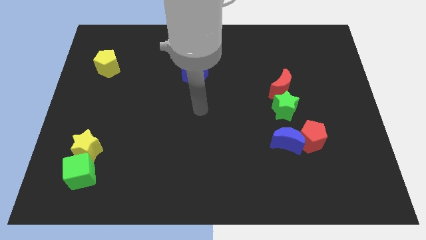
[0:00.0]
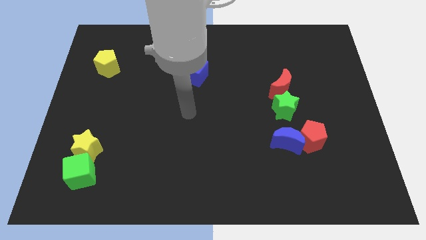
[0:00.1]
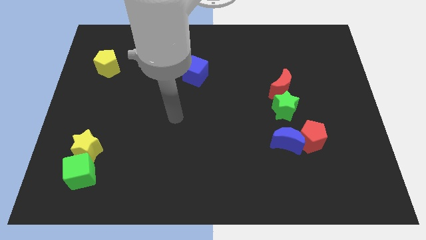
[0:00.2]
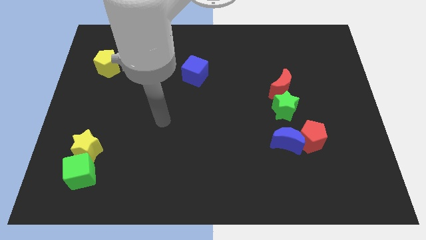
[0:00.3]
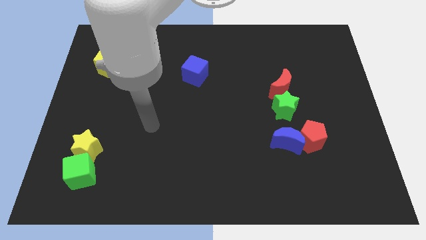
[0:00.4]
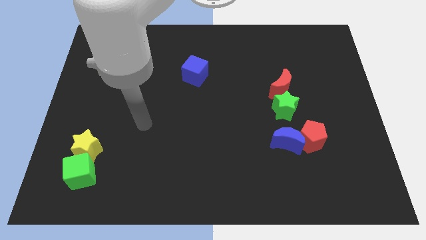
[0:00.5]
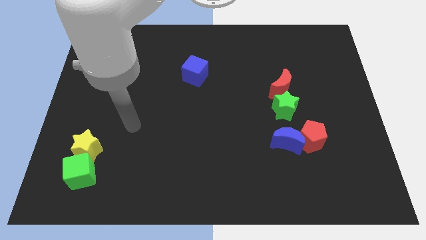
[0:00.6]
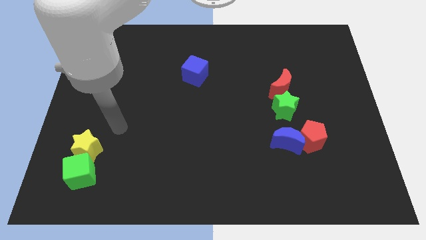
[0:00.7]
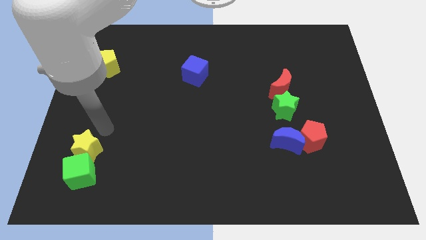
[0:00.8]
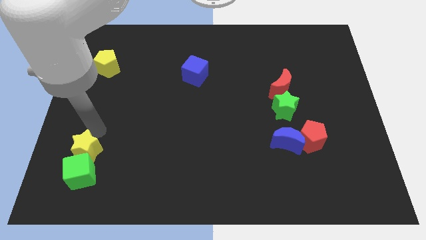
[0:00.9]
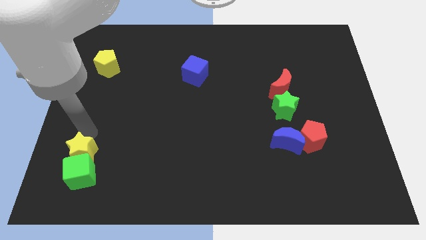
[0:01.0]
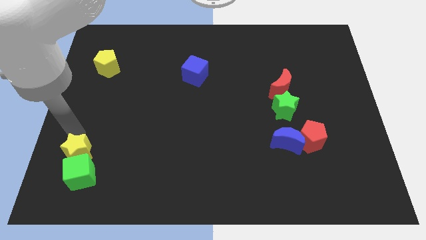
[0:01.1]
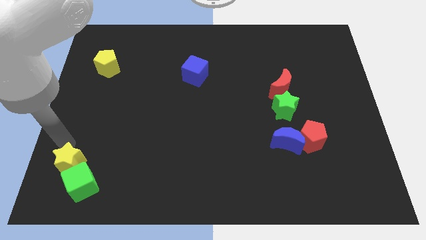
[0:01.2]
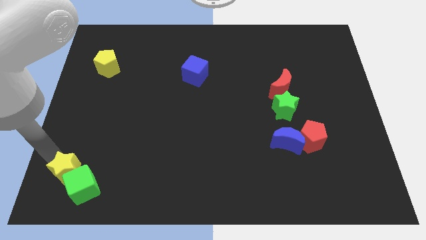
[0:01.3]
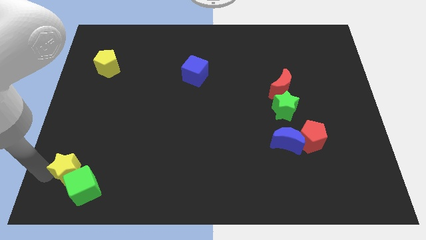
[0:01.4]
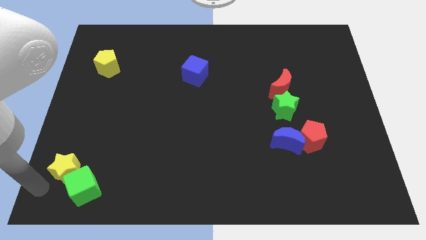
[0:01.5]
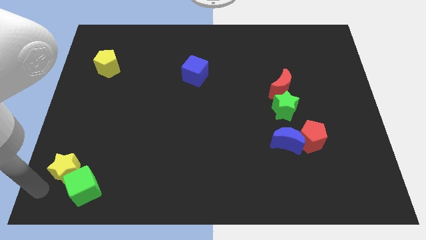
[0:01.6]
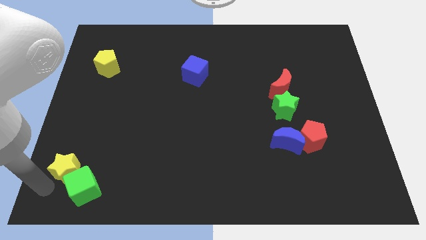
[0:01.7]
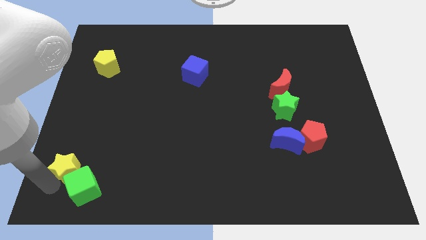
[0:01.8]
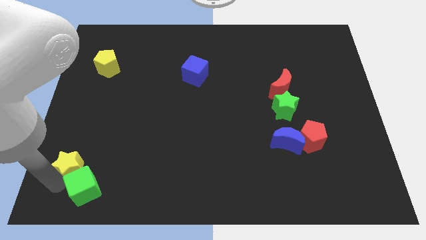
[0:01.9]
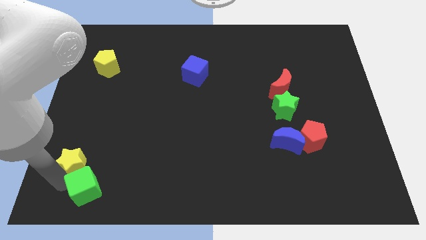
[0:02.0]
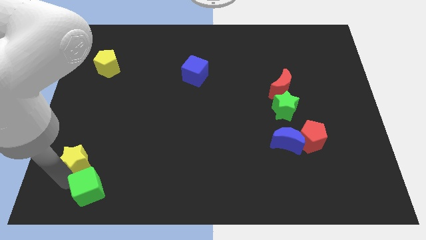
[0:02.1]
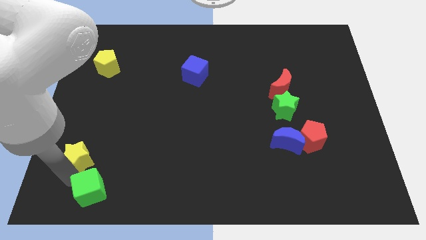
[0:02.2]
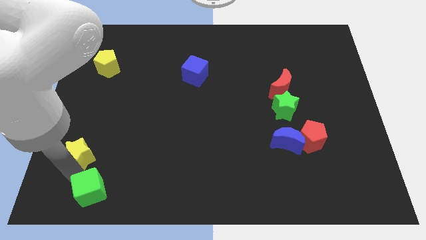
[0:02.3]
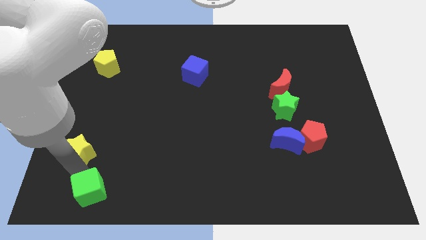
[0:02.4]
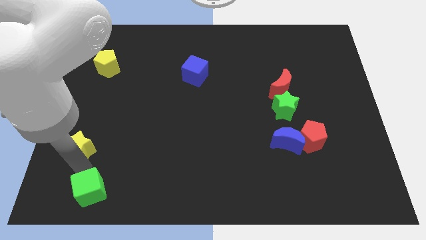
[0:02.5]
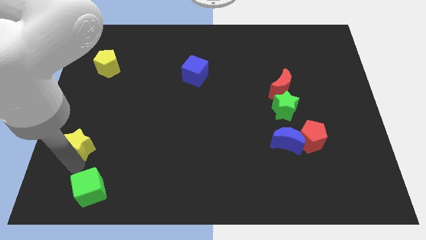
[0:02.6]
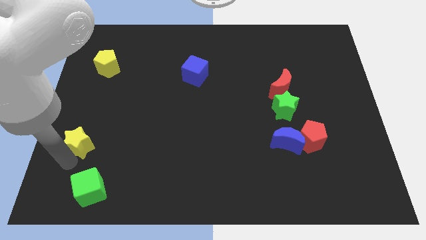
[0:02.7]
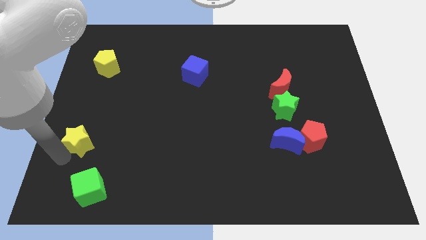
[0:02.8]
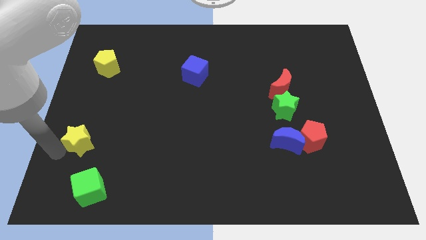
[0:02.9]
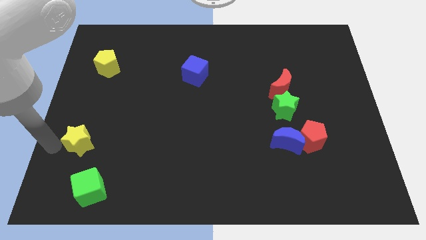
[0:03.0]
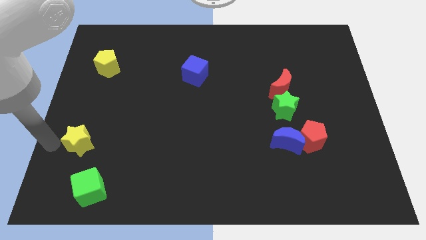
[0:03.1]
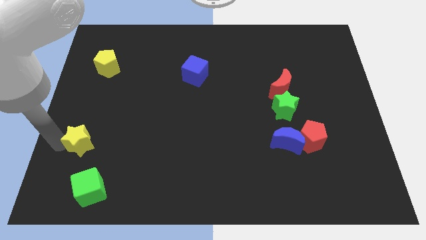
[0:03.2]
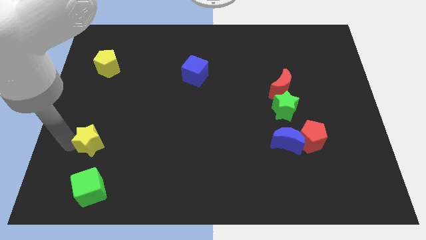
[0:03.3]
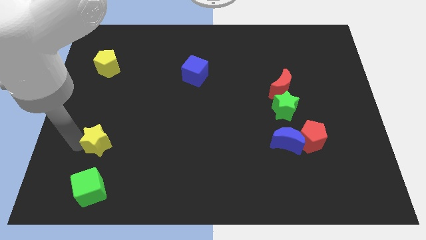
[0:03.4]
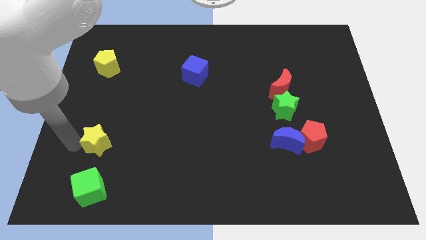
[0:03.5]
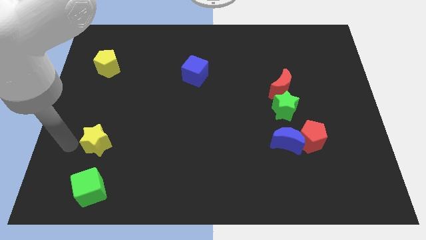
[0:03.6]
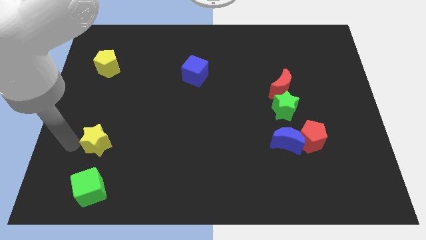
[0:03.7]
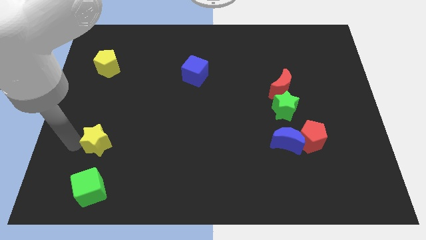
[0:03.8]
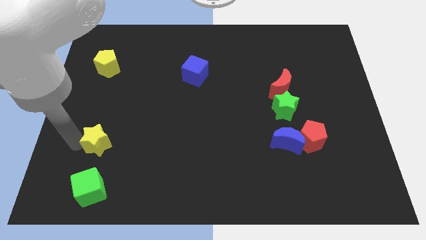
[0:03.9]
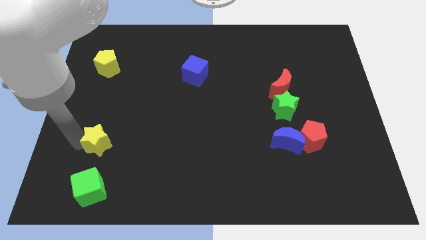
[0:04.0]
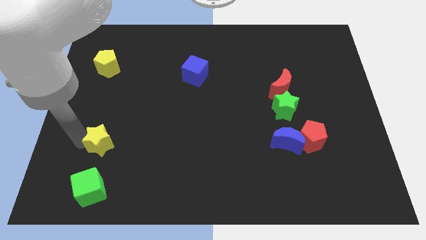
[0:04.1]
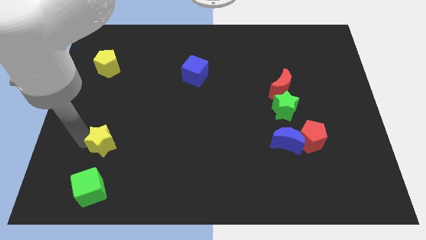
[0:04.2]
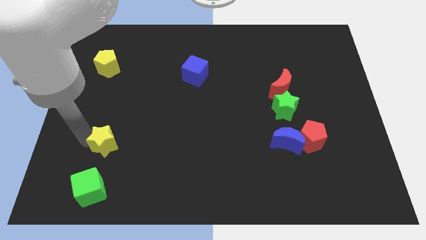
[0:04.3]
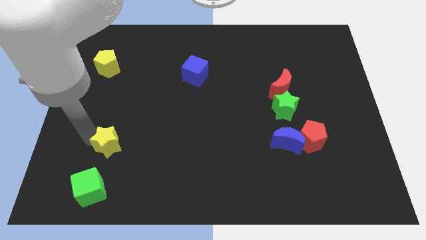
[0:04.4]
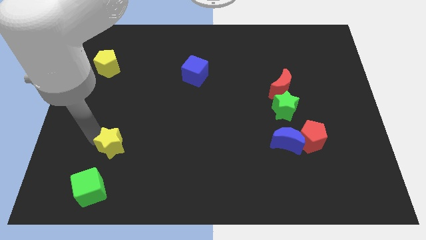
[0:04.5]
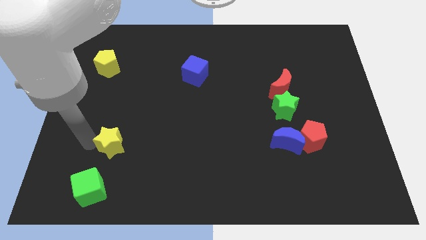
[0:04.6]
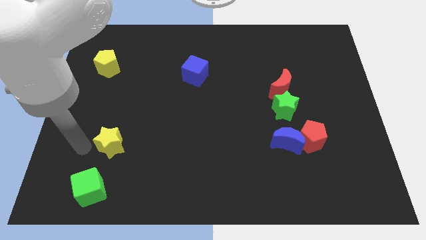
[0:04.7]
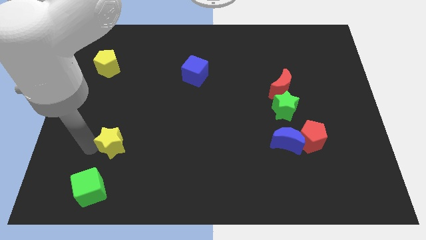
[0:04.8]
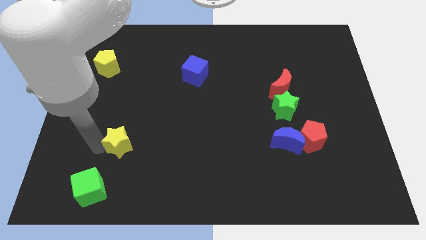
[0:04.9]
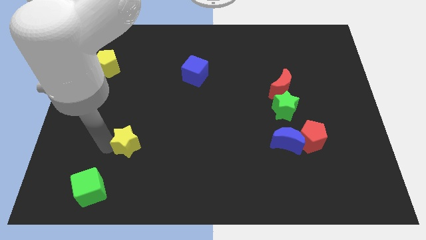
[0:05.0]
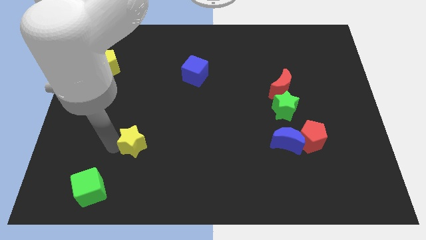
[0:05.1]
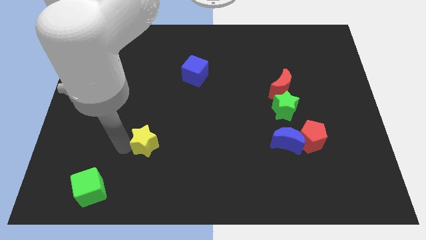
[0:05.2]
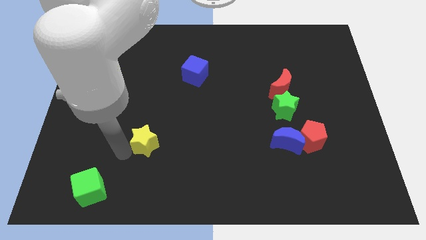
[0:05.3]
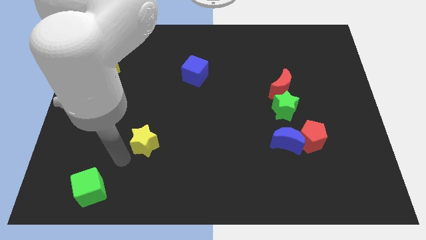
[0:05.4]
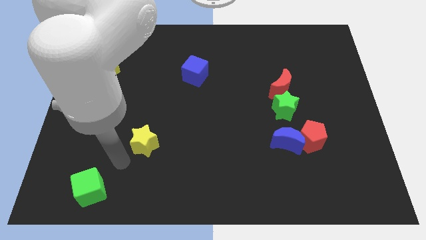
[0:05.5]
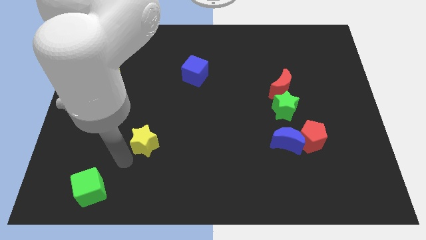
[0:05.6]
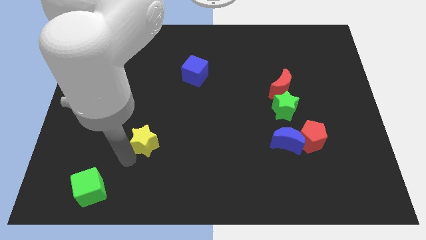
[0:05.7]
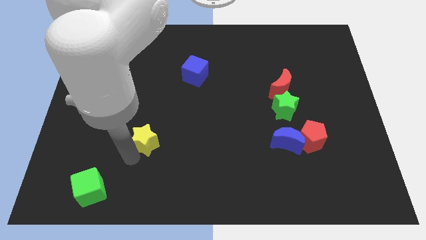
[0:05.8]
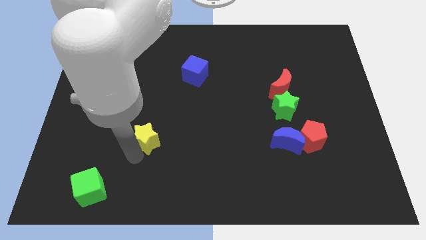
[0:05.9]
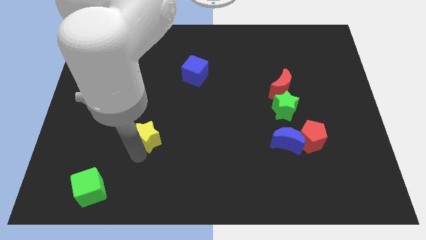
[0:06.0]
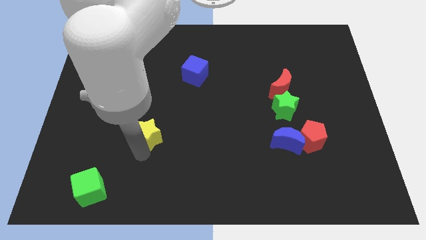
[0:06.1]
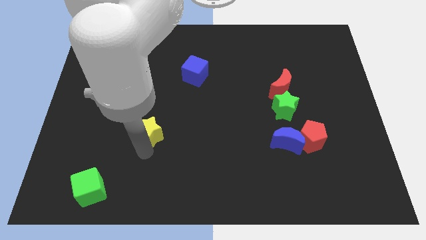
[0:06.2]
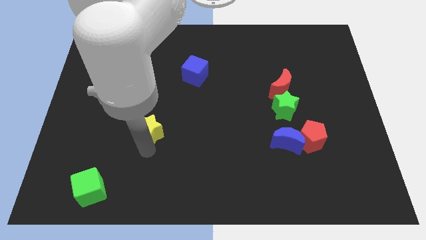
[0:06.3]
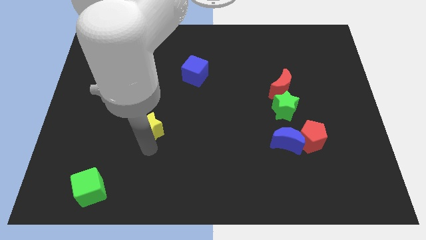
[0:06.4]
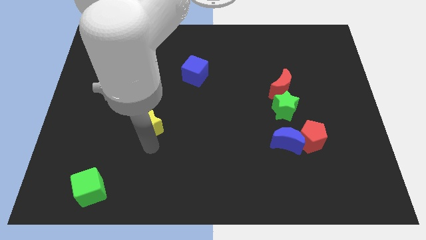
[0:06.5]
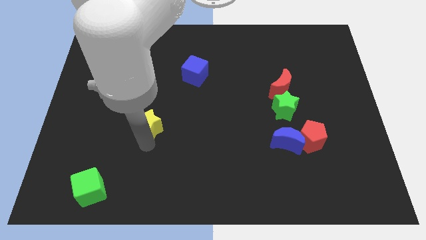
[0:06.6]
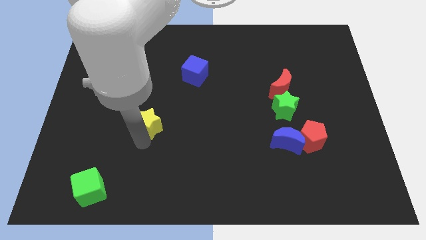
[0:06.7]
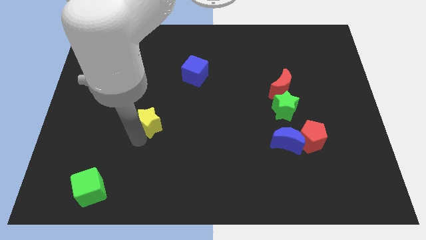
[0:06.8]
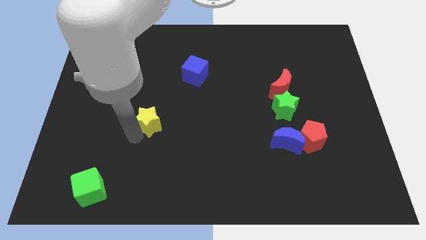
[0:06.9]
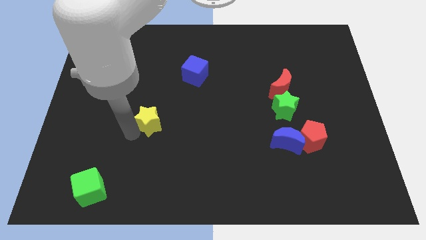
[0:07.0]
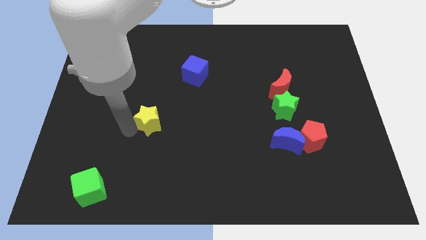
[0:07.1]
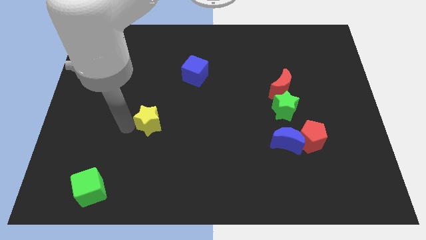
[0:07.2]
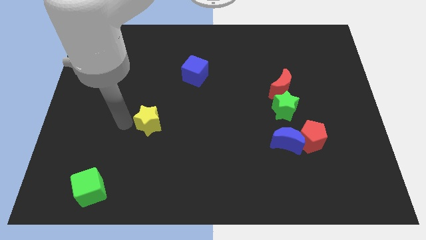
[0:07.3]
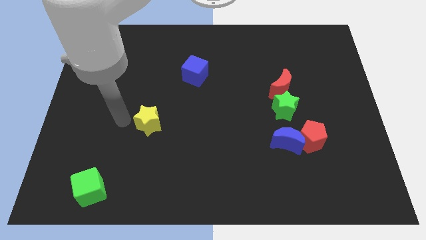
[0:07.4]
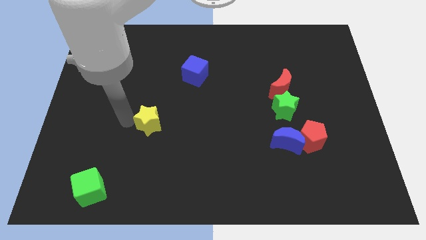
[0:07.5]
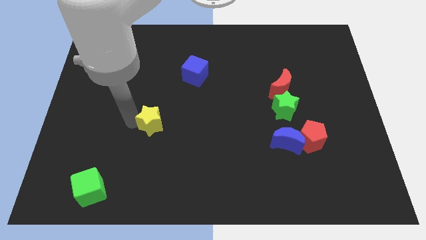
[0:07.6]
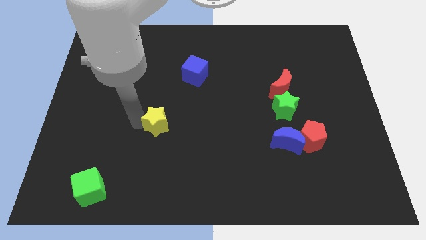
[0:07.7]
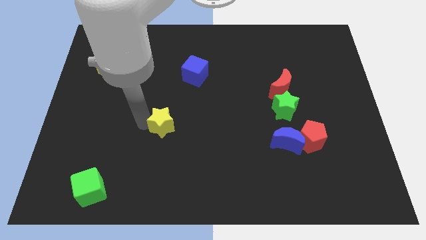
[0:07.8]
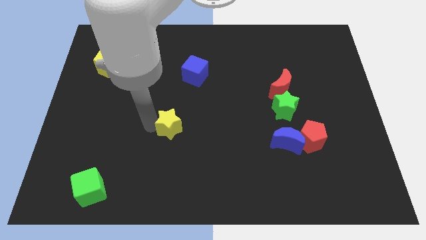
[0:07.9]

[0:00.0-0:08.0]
slide the yellow star to the middle
